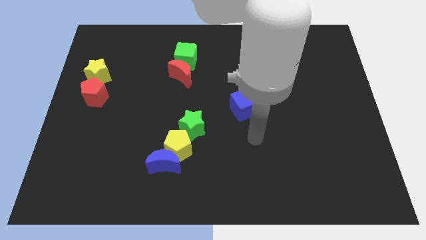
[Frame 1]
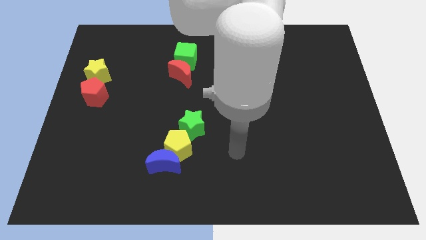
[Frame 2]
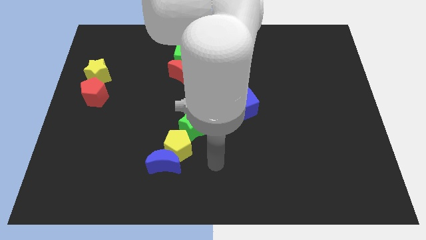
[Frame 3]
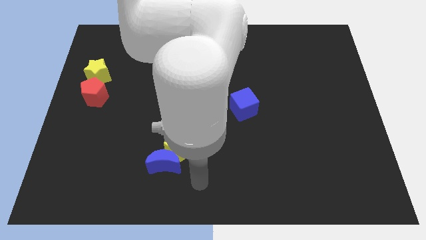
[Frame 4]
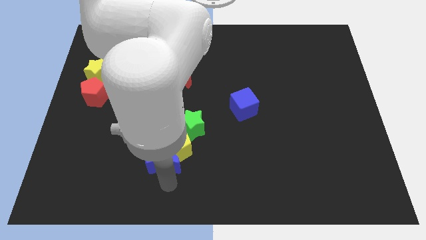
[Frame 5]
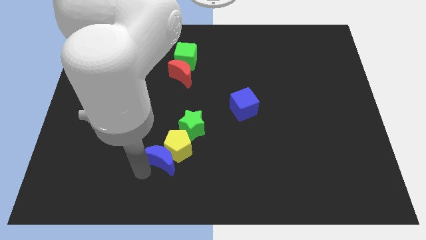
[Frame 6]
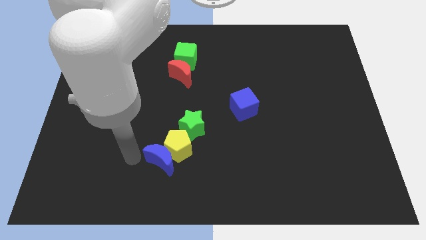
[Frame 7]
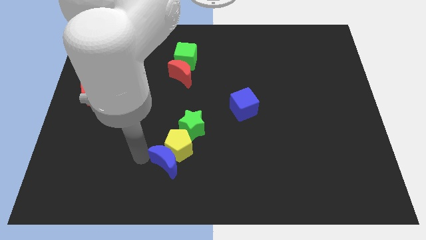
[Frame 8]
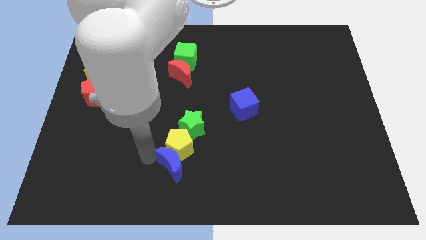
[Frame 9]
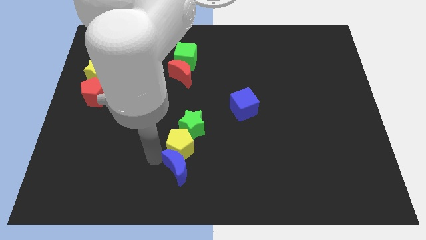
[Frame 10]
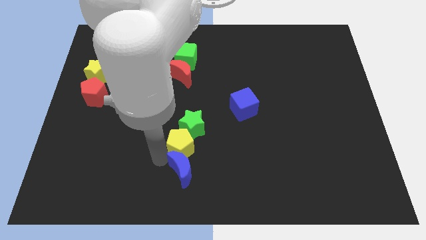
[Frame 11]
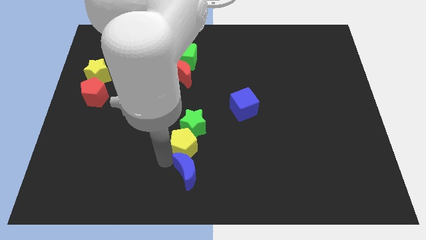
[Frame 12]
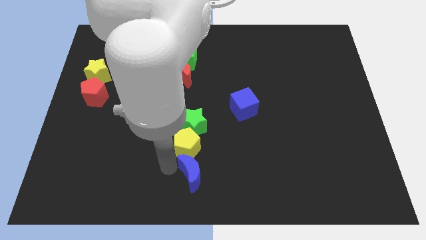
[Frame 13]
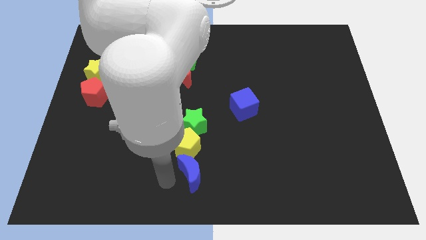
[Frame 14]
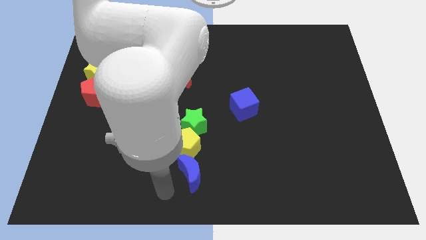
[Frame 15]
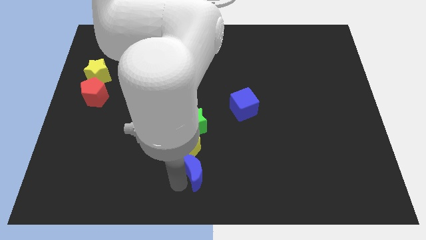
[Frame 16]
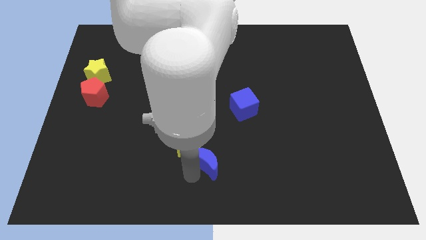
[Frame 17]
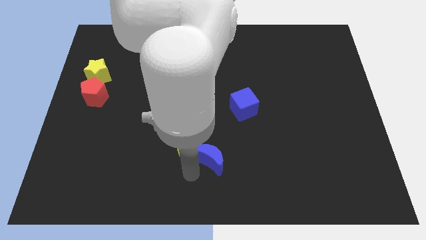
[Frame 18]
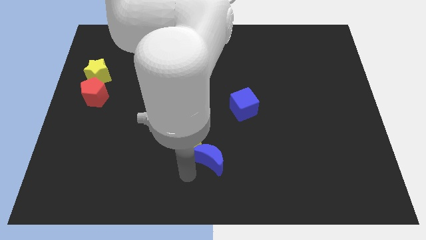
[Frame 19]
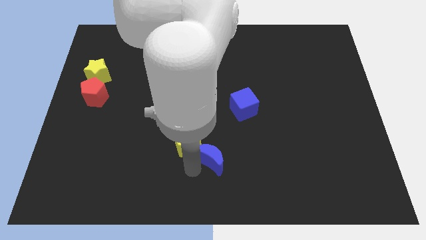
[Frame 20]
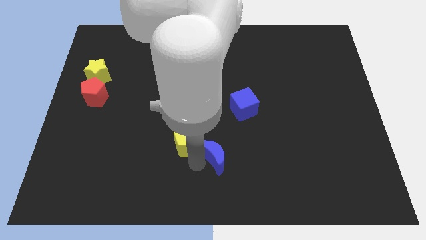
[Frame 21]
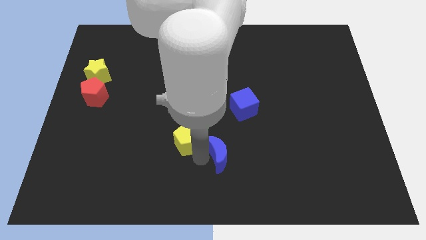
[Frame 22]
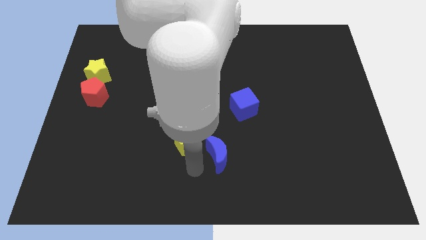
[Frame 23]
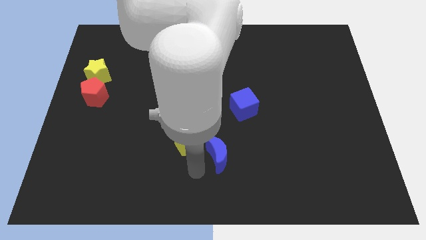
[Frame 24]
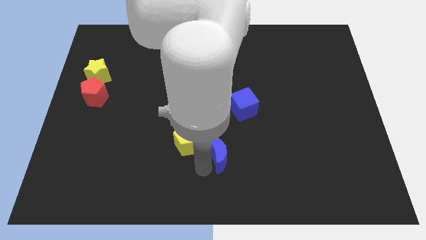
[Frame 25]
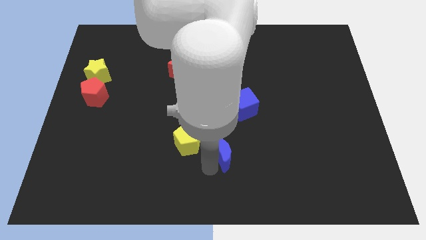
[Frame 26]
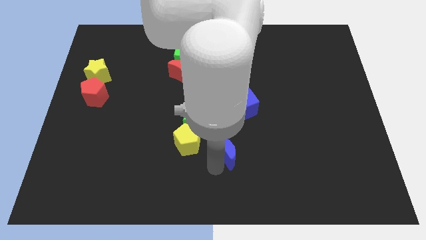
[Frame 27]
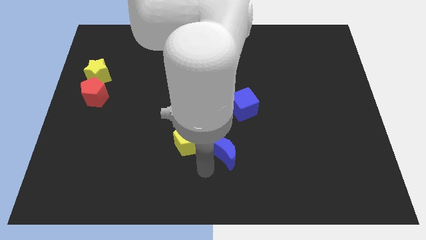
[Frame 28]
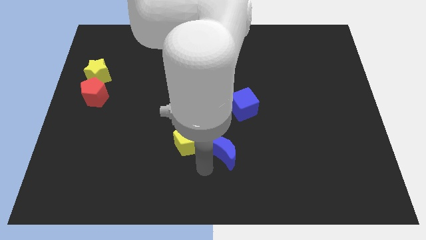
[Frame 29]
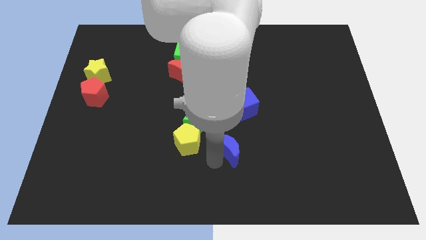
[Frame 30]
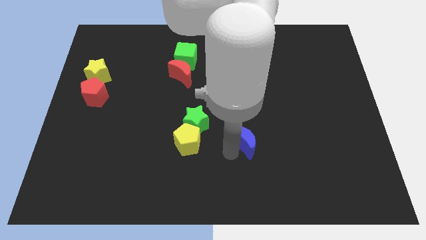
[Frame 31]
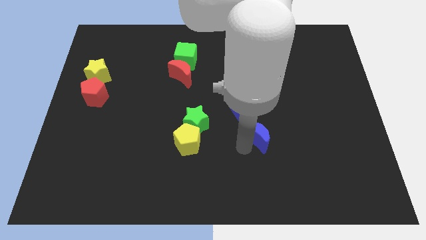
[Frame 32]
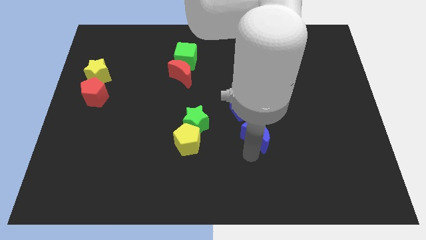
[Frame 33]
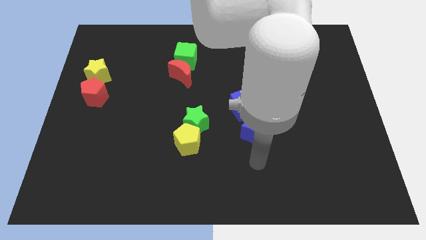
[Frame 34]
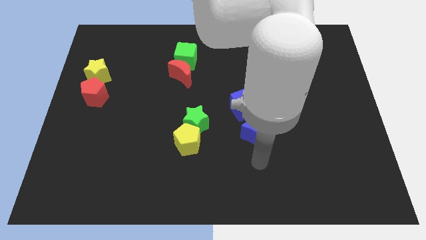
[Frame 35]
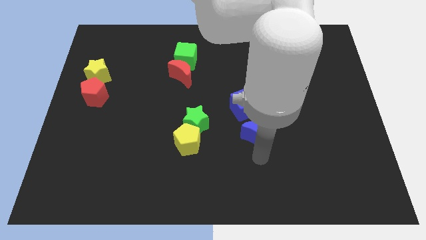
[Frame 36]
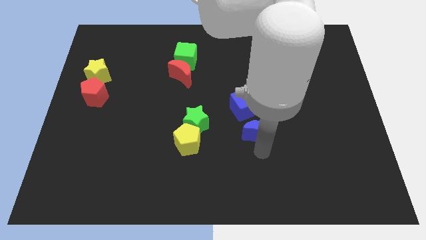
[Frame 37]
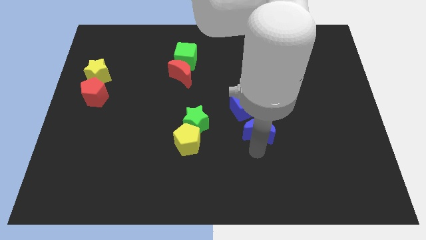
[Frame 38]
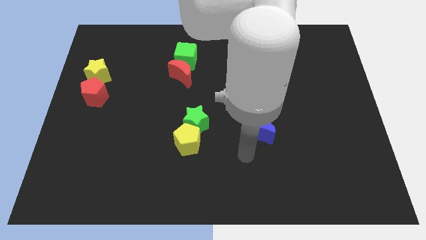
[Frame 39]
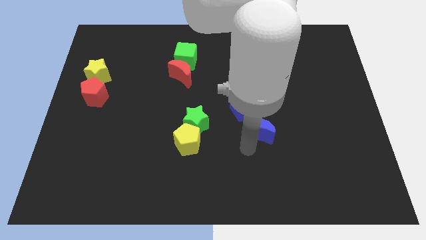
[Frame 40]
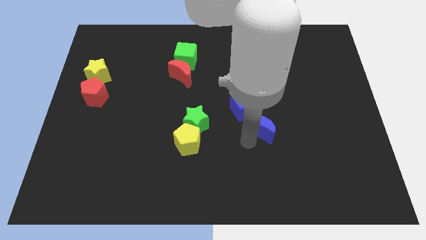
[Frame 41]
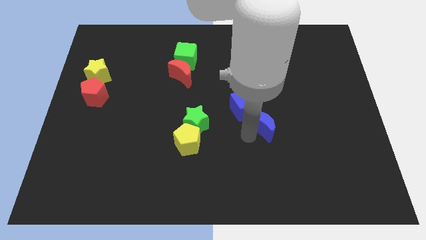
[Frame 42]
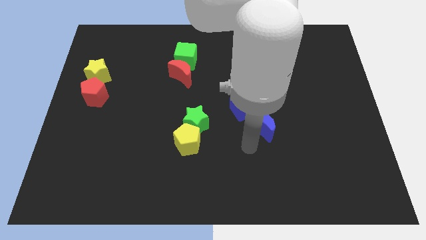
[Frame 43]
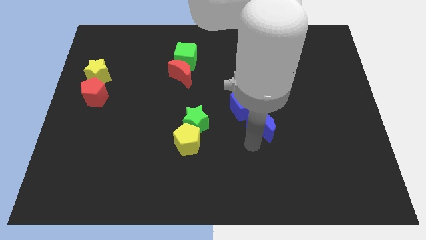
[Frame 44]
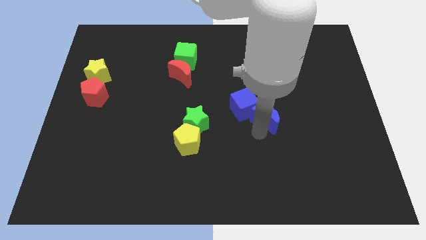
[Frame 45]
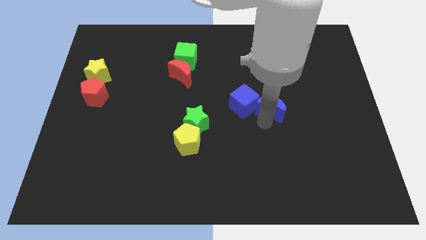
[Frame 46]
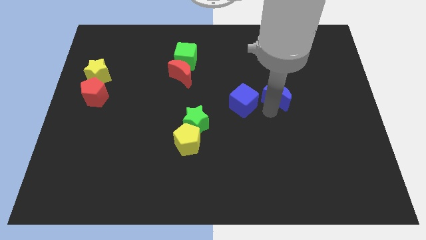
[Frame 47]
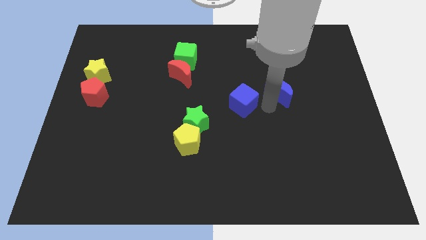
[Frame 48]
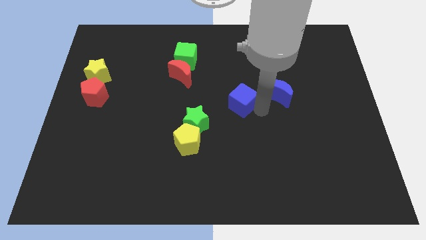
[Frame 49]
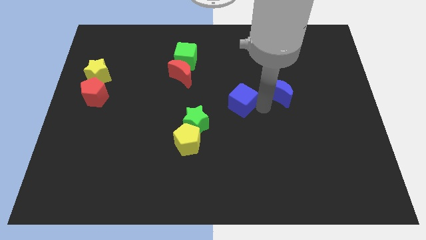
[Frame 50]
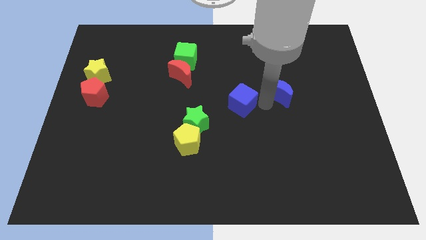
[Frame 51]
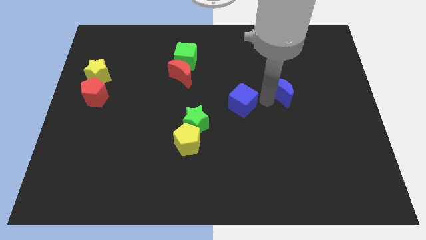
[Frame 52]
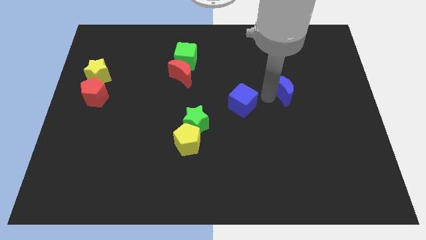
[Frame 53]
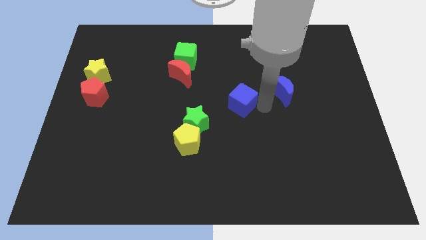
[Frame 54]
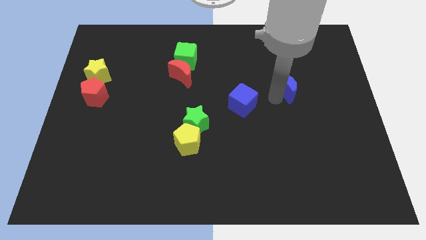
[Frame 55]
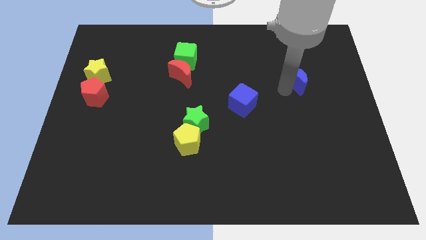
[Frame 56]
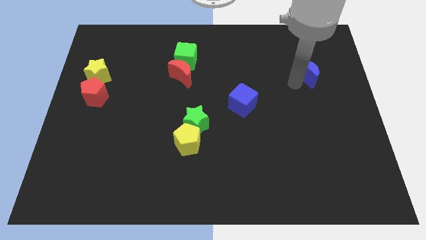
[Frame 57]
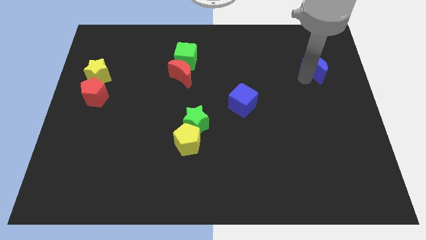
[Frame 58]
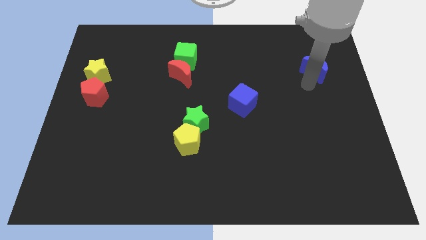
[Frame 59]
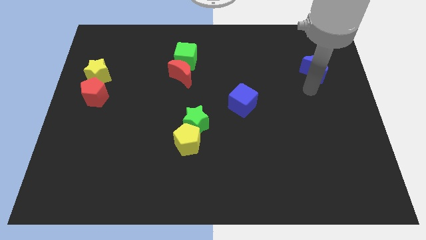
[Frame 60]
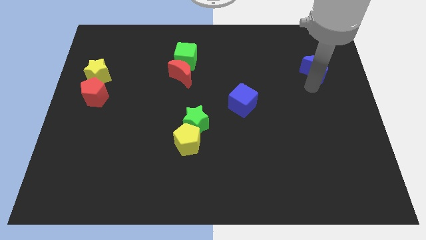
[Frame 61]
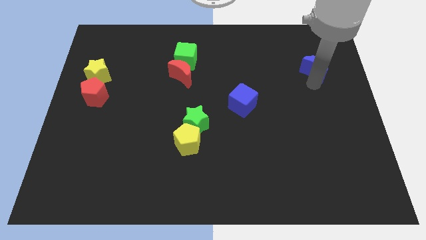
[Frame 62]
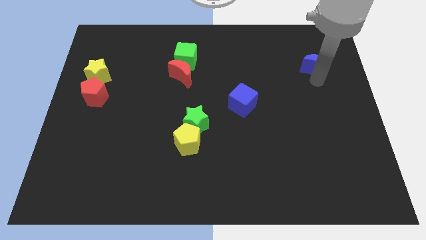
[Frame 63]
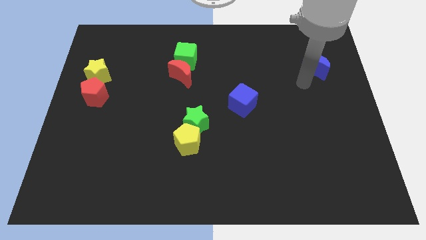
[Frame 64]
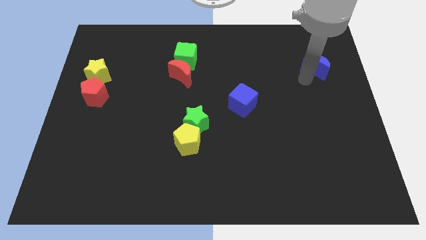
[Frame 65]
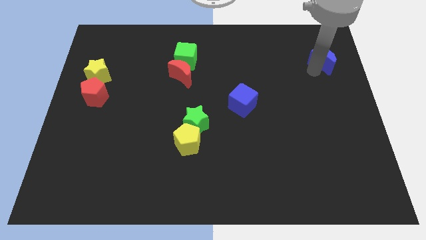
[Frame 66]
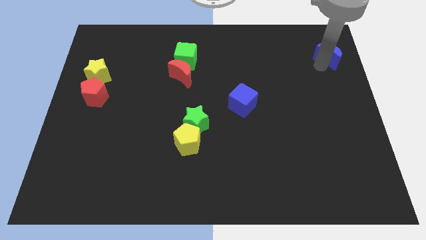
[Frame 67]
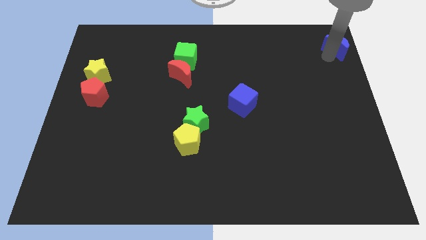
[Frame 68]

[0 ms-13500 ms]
put the blue moon to the top right corner
